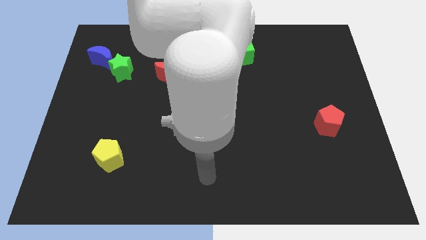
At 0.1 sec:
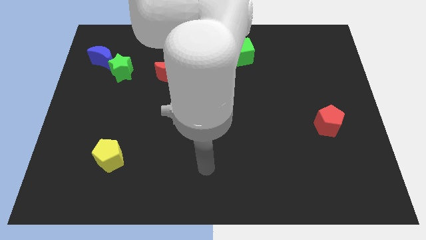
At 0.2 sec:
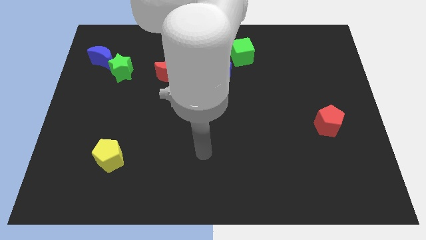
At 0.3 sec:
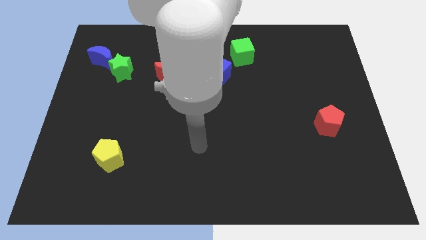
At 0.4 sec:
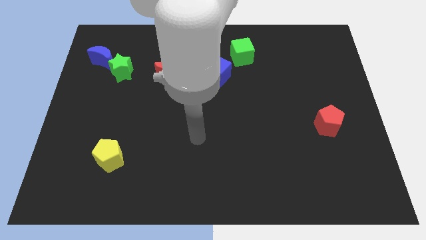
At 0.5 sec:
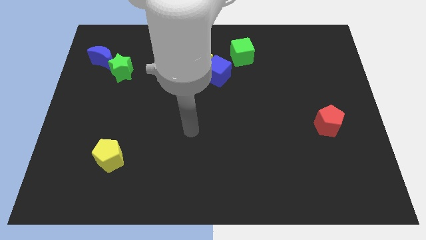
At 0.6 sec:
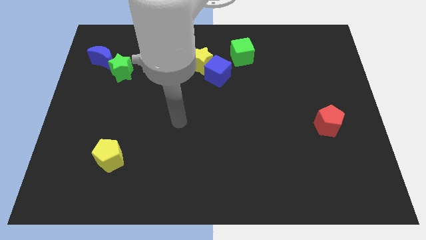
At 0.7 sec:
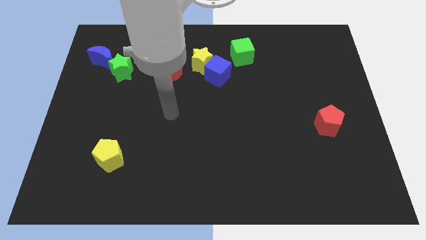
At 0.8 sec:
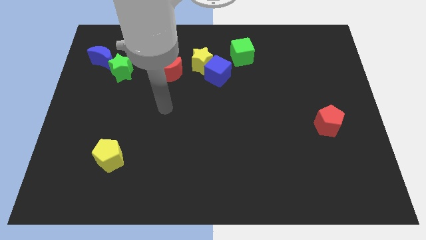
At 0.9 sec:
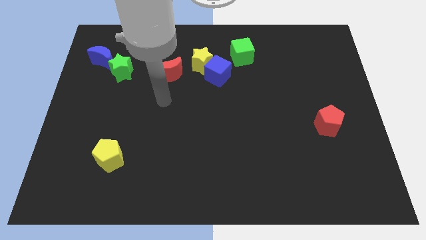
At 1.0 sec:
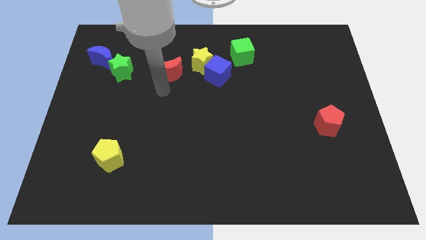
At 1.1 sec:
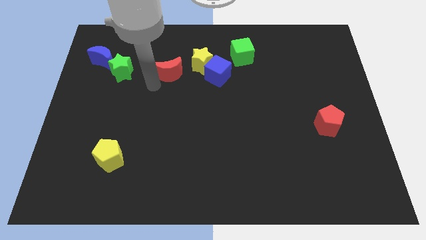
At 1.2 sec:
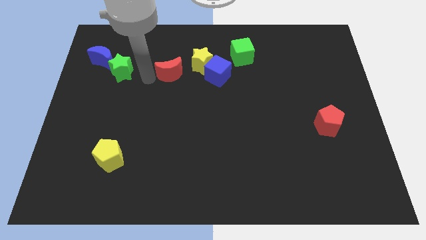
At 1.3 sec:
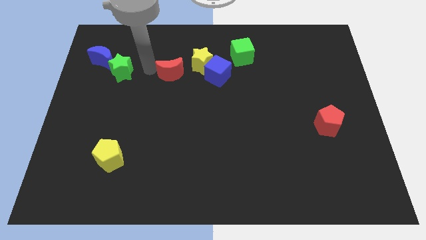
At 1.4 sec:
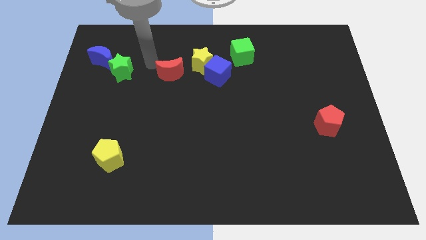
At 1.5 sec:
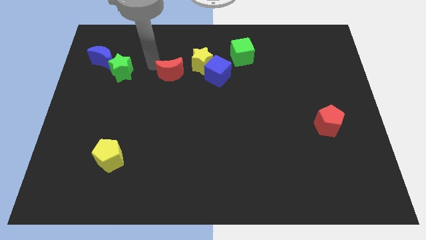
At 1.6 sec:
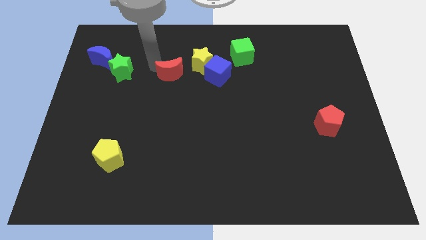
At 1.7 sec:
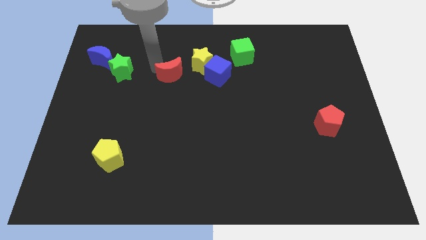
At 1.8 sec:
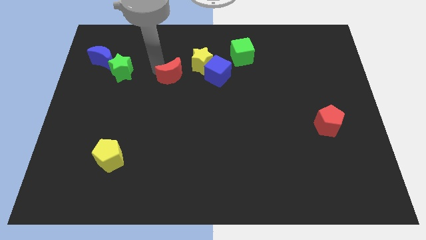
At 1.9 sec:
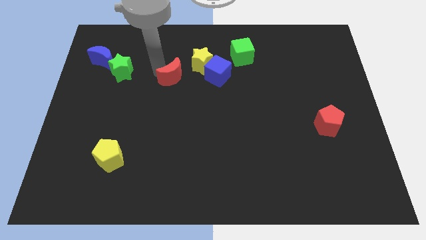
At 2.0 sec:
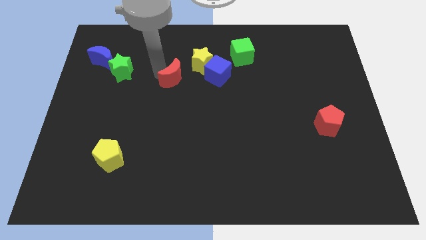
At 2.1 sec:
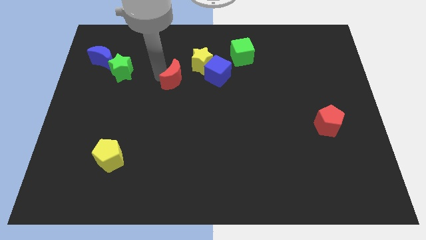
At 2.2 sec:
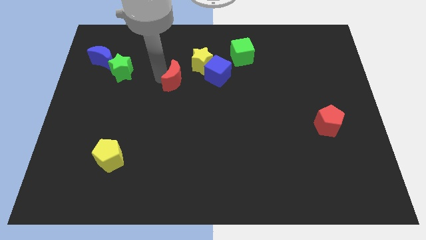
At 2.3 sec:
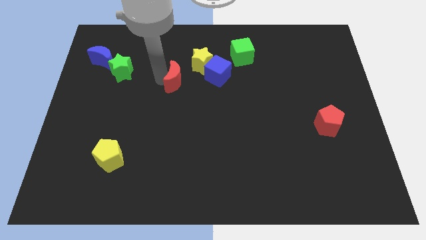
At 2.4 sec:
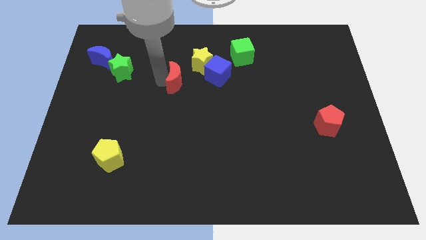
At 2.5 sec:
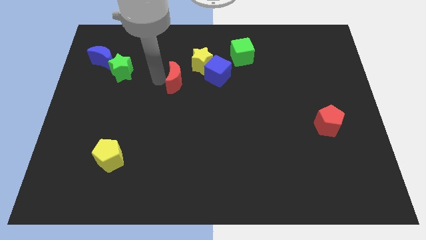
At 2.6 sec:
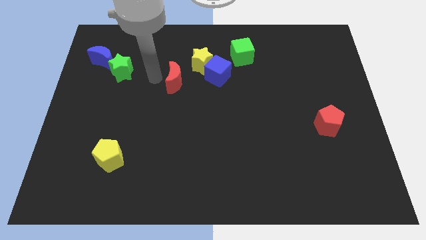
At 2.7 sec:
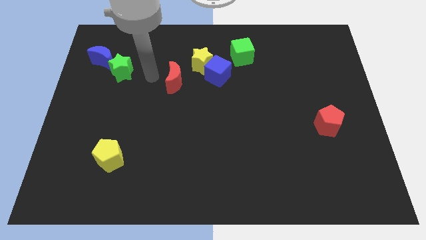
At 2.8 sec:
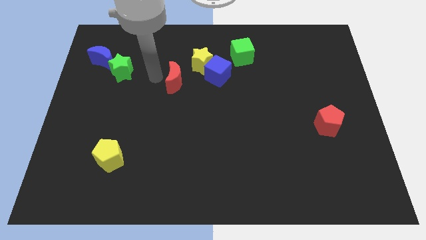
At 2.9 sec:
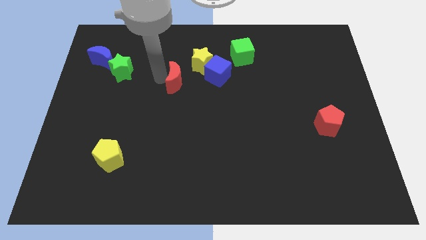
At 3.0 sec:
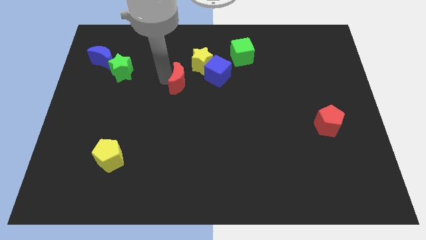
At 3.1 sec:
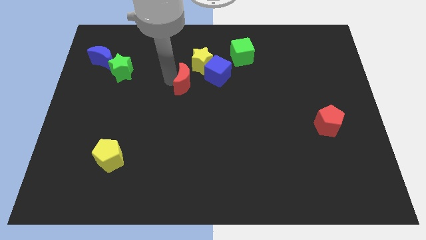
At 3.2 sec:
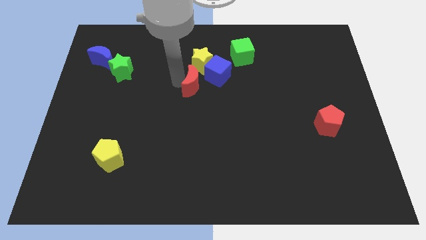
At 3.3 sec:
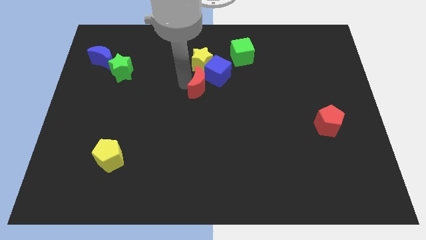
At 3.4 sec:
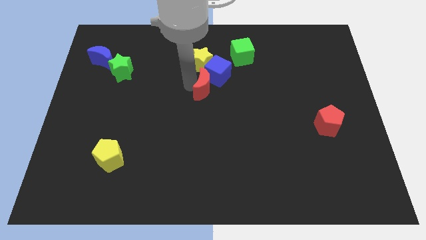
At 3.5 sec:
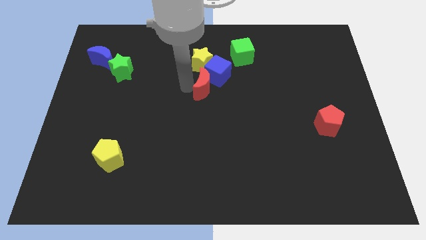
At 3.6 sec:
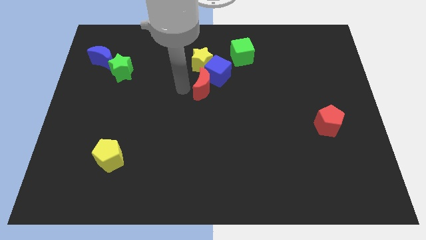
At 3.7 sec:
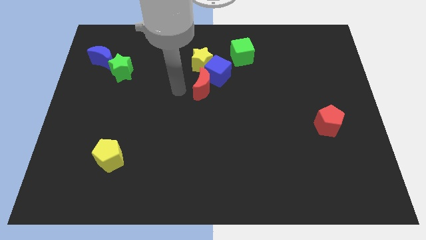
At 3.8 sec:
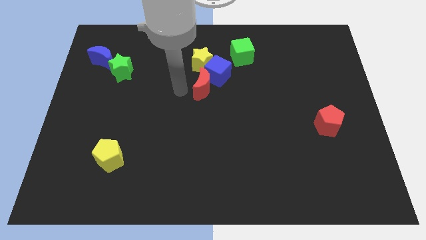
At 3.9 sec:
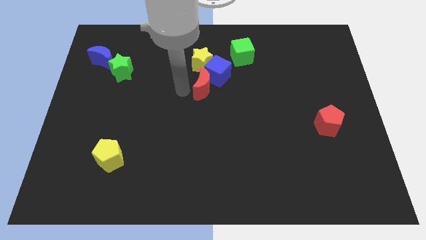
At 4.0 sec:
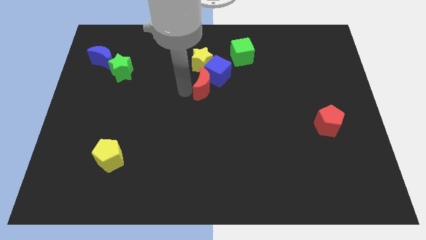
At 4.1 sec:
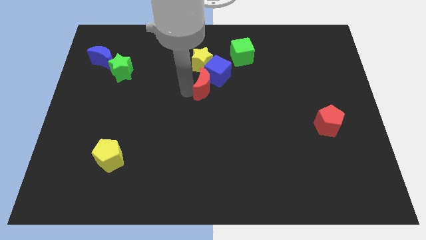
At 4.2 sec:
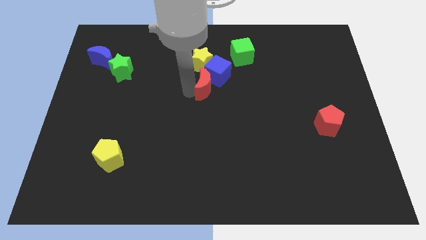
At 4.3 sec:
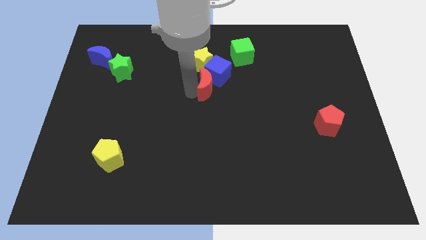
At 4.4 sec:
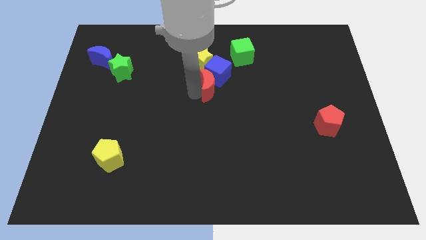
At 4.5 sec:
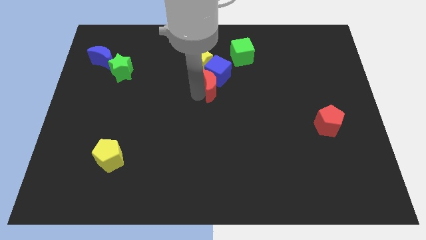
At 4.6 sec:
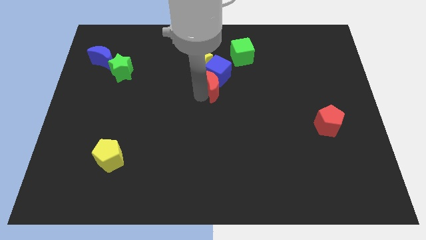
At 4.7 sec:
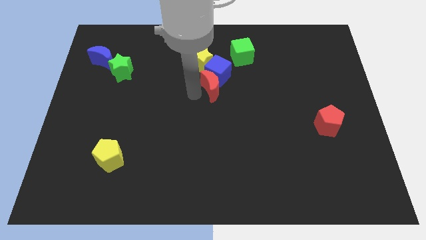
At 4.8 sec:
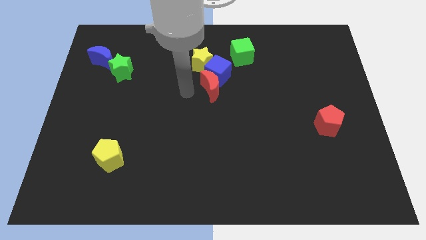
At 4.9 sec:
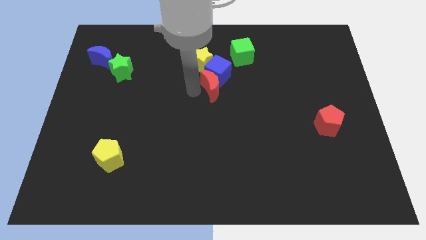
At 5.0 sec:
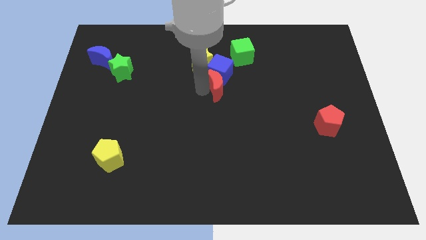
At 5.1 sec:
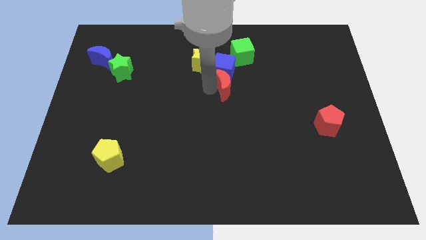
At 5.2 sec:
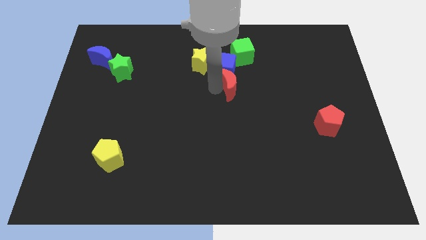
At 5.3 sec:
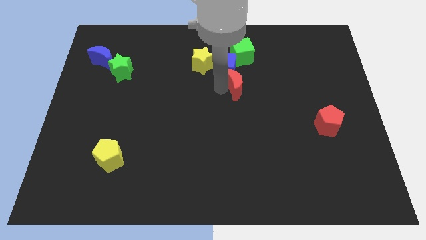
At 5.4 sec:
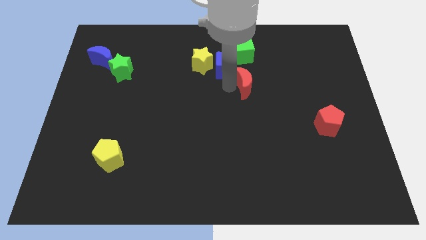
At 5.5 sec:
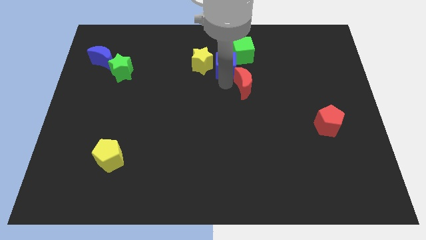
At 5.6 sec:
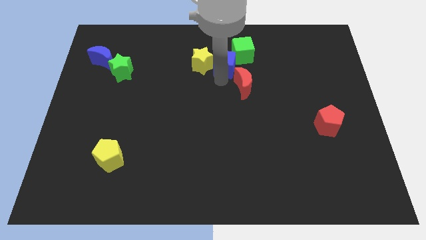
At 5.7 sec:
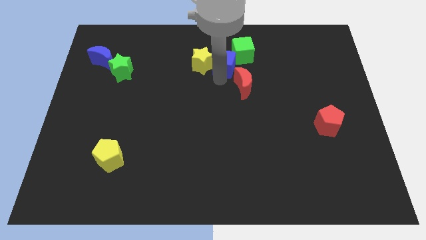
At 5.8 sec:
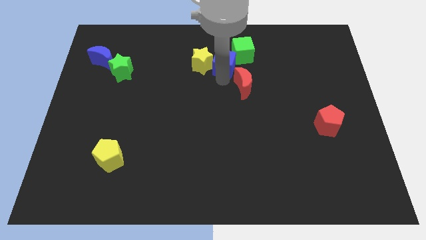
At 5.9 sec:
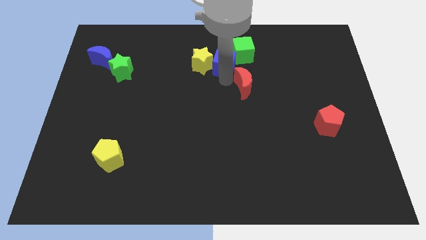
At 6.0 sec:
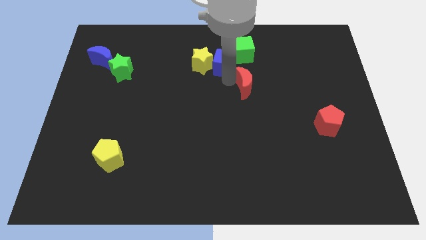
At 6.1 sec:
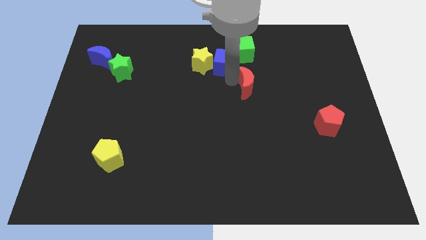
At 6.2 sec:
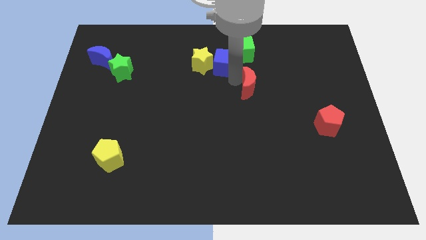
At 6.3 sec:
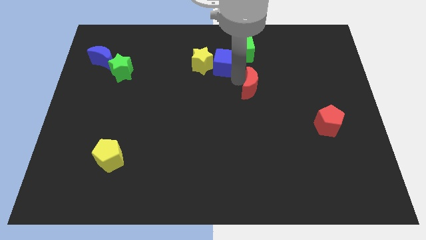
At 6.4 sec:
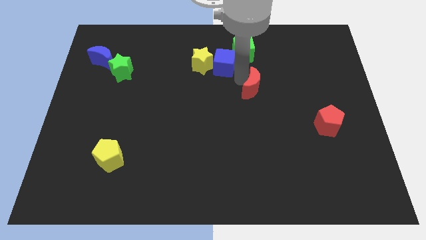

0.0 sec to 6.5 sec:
move the red moon right

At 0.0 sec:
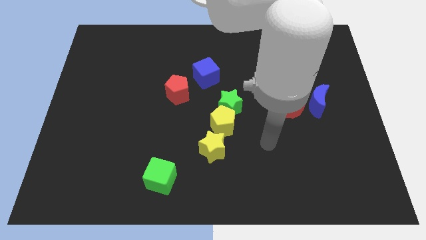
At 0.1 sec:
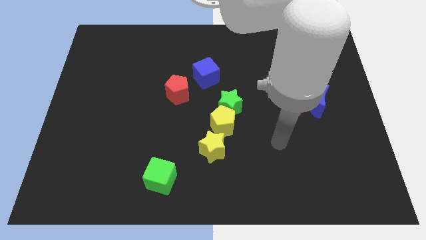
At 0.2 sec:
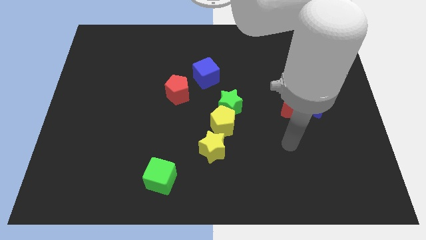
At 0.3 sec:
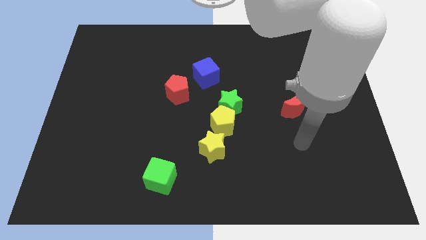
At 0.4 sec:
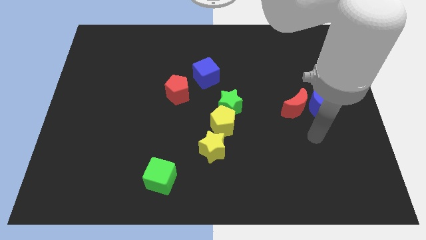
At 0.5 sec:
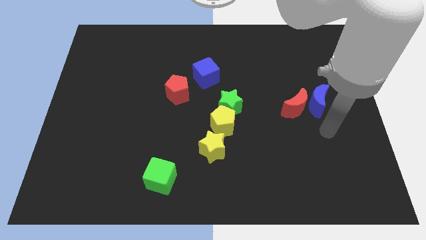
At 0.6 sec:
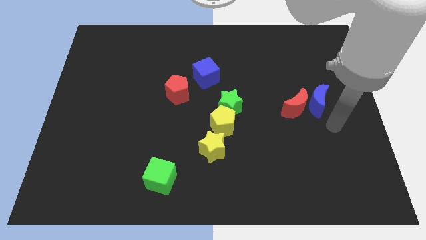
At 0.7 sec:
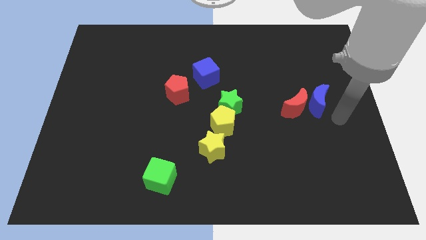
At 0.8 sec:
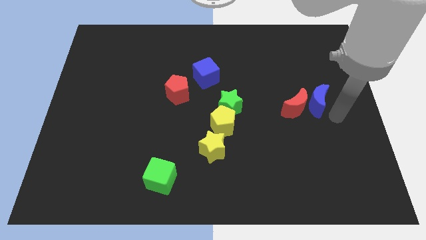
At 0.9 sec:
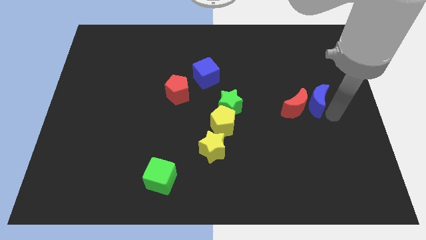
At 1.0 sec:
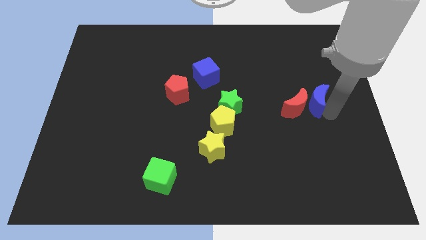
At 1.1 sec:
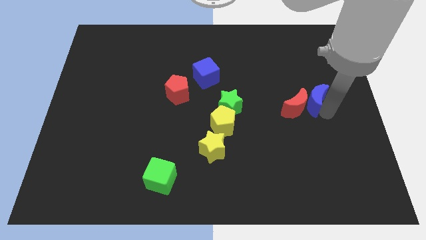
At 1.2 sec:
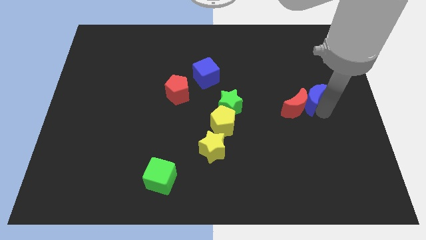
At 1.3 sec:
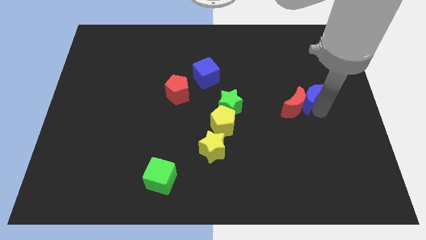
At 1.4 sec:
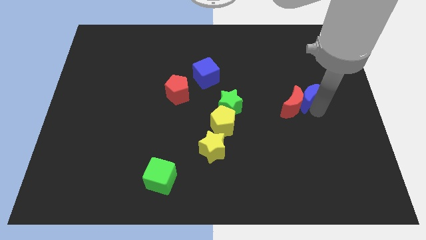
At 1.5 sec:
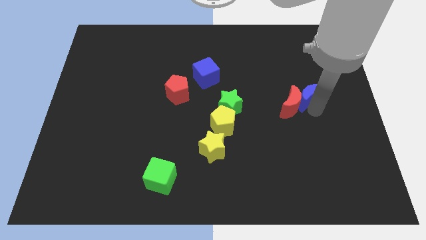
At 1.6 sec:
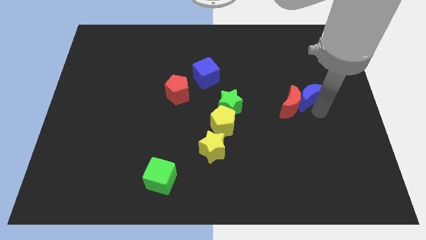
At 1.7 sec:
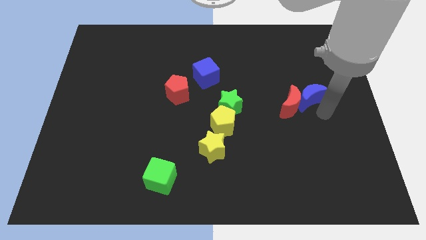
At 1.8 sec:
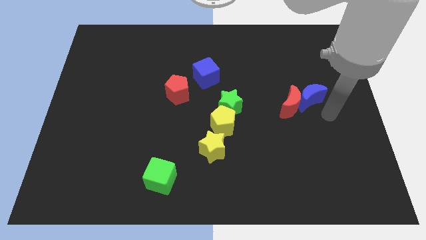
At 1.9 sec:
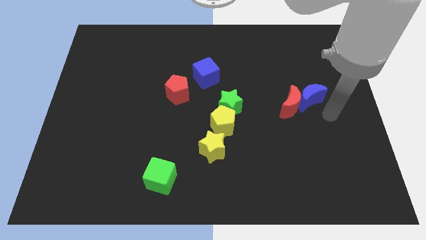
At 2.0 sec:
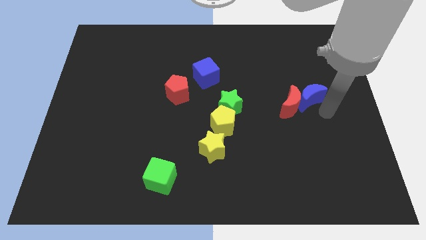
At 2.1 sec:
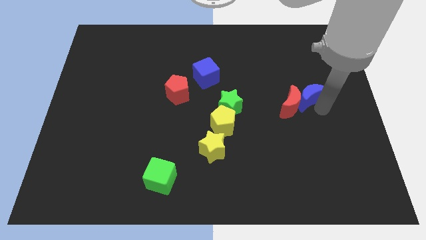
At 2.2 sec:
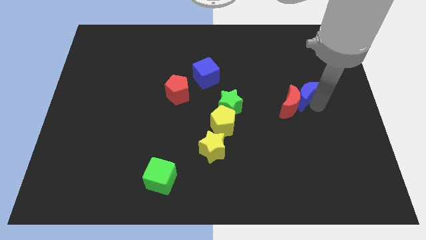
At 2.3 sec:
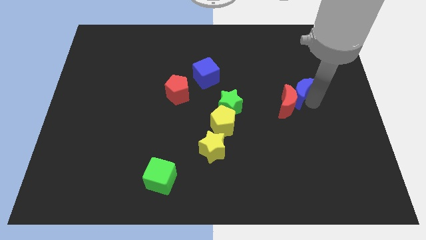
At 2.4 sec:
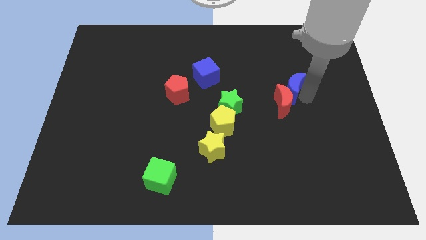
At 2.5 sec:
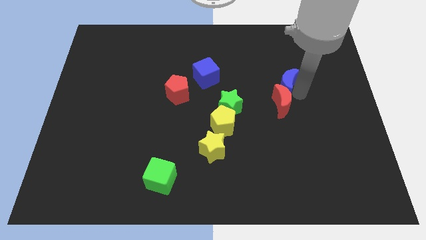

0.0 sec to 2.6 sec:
slide the blue moon slightly diagonally up and left
